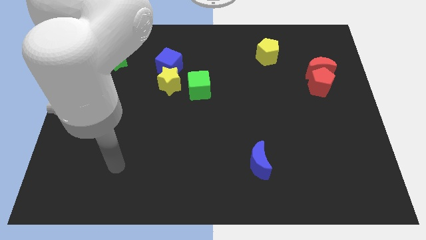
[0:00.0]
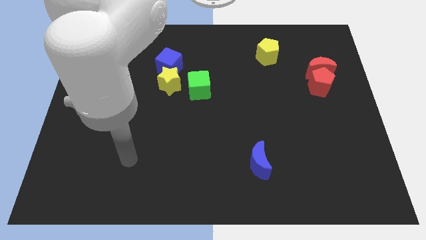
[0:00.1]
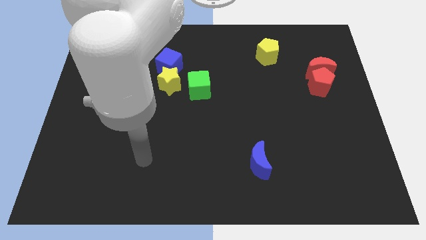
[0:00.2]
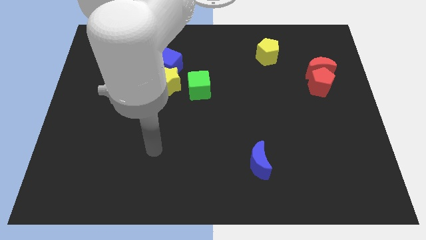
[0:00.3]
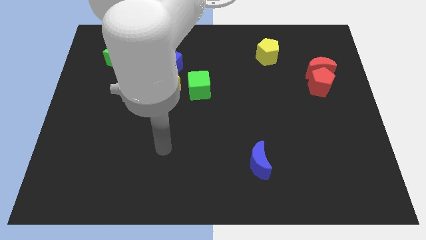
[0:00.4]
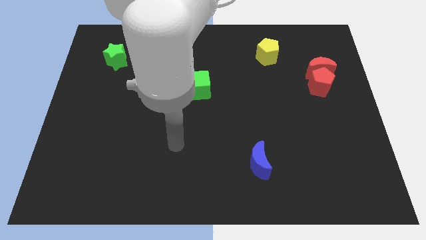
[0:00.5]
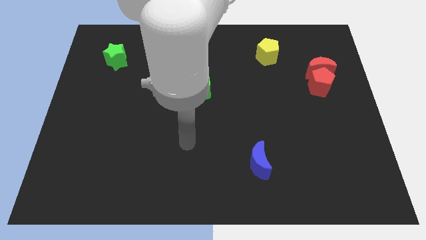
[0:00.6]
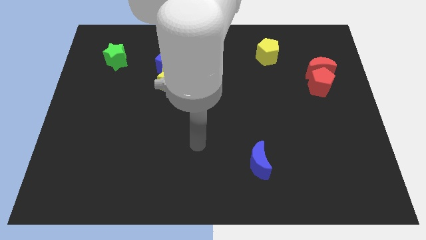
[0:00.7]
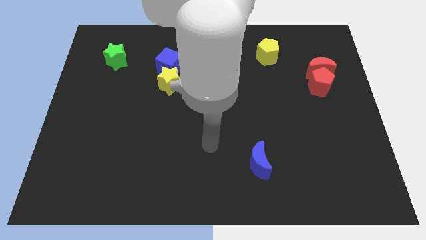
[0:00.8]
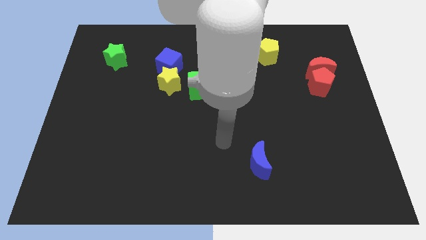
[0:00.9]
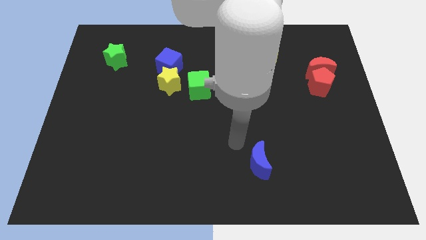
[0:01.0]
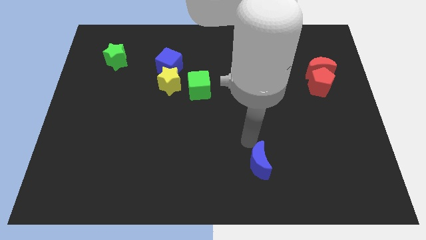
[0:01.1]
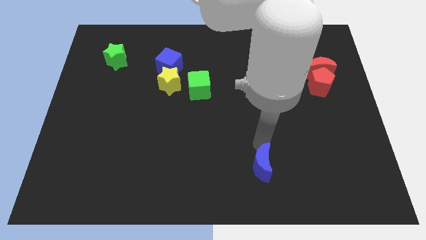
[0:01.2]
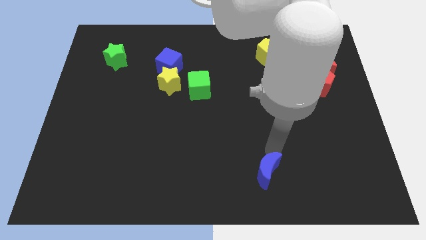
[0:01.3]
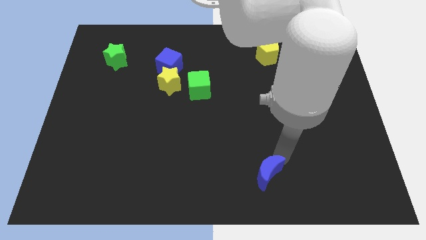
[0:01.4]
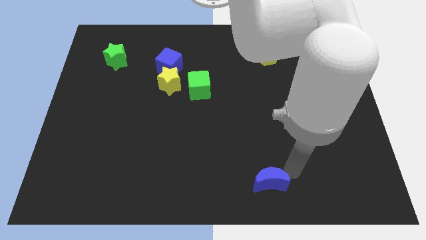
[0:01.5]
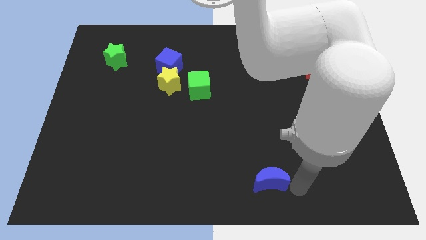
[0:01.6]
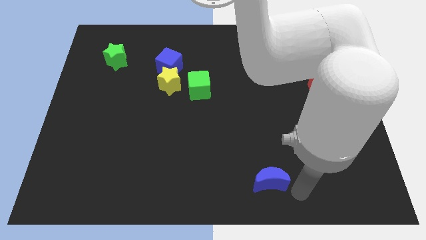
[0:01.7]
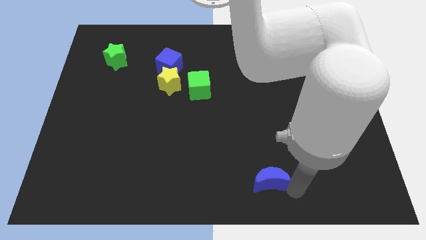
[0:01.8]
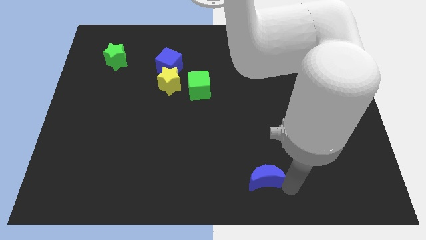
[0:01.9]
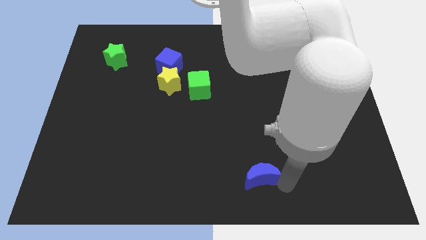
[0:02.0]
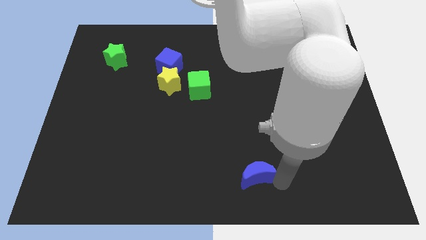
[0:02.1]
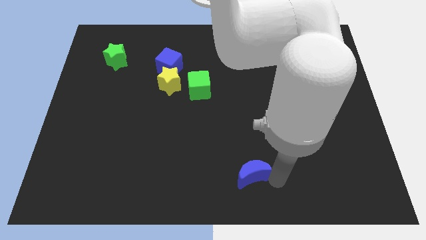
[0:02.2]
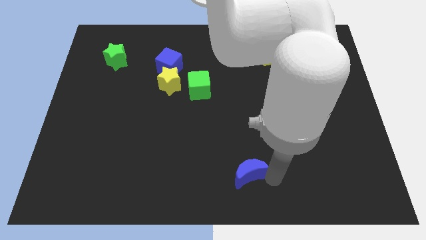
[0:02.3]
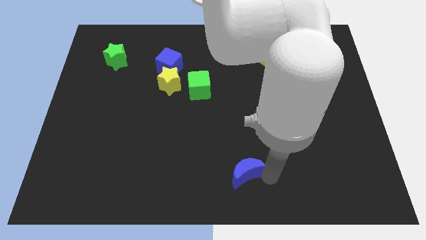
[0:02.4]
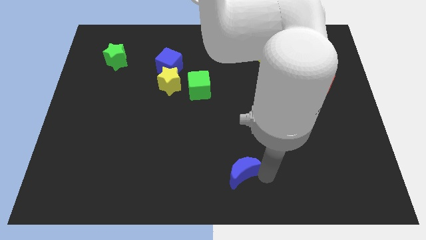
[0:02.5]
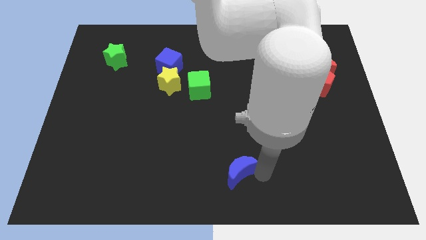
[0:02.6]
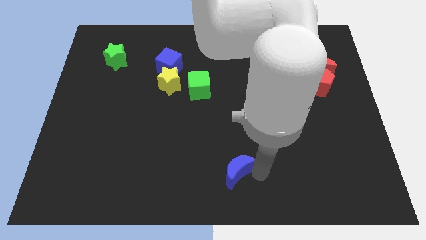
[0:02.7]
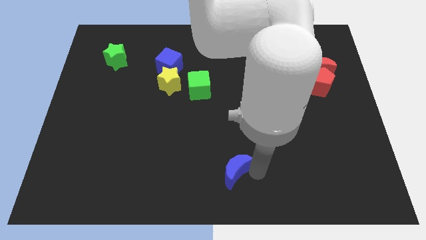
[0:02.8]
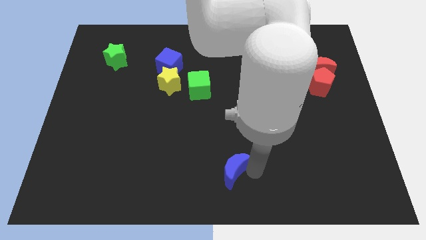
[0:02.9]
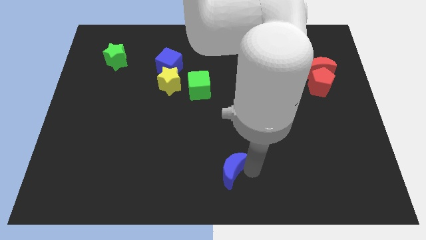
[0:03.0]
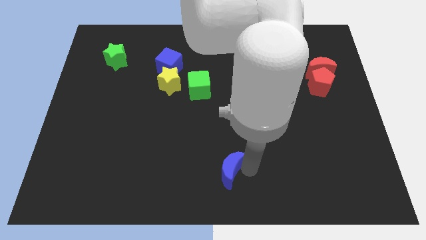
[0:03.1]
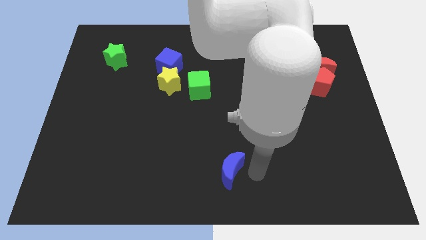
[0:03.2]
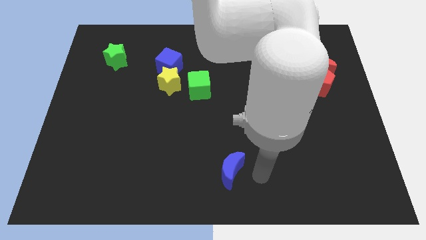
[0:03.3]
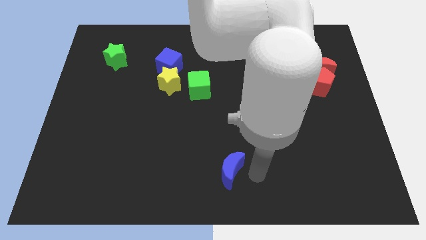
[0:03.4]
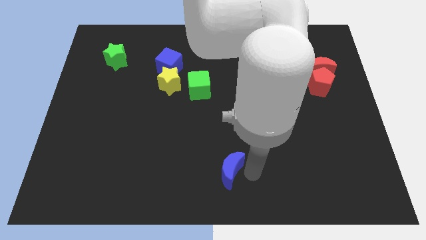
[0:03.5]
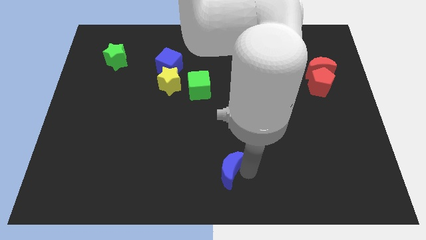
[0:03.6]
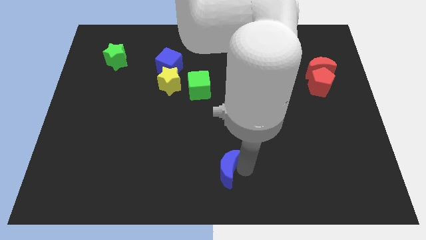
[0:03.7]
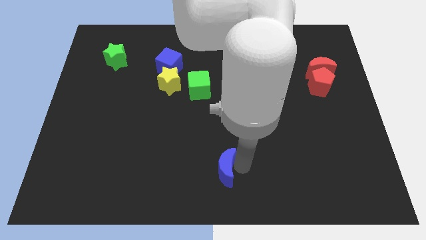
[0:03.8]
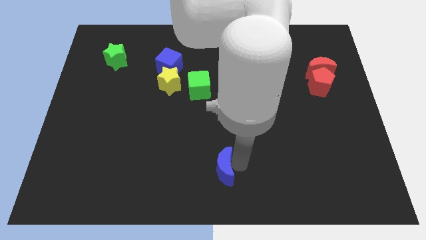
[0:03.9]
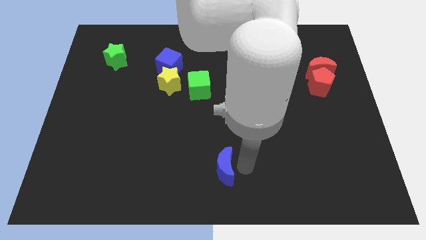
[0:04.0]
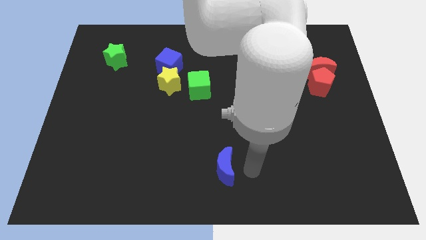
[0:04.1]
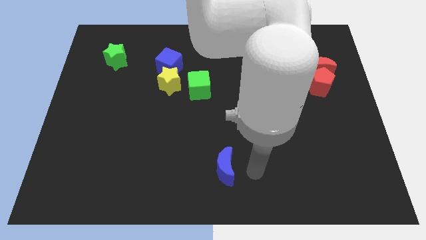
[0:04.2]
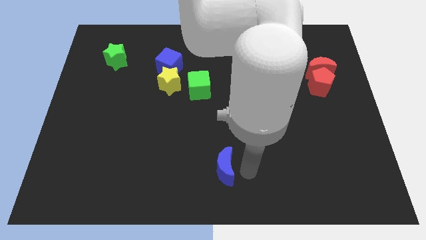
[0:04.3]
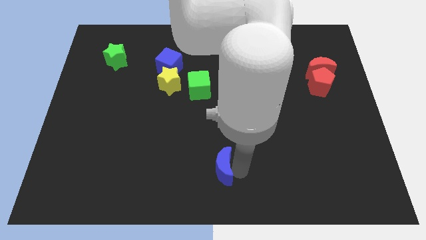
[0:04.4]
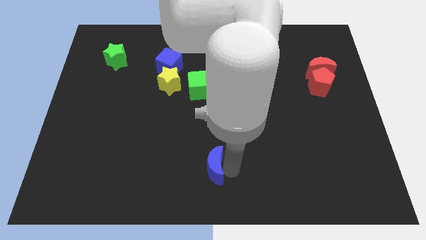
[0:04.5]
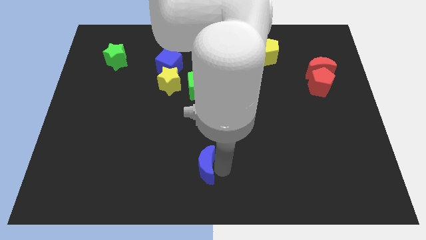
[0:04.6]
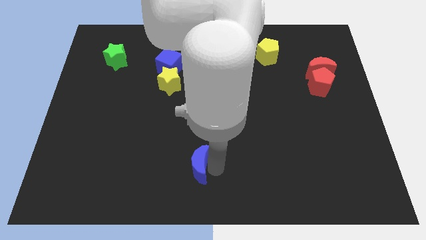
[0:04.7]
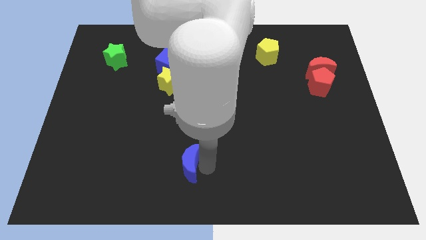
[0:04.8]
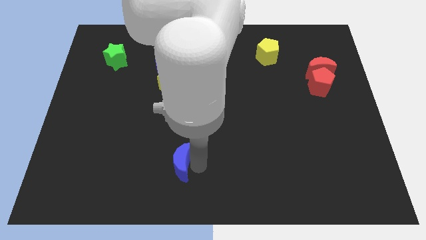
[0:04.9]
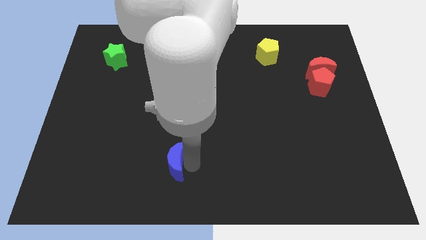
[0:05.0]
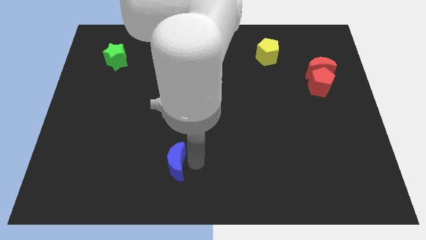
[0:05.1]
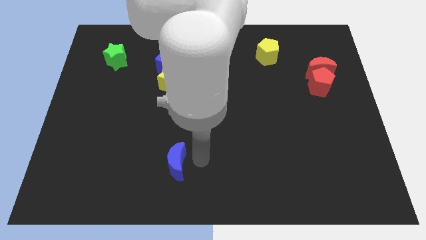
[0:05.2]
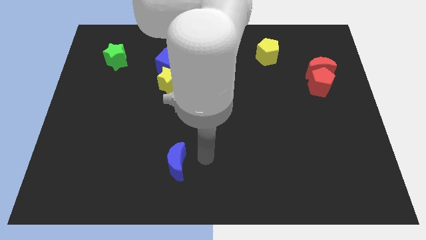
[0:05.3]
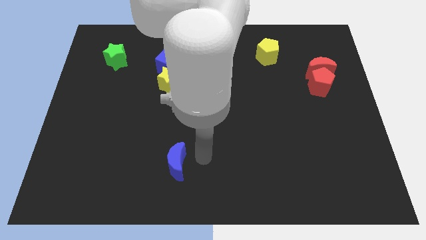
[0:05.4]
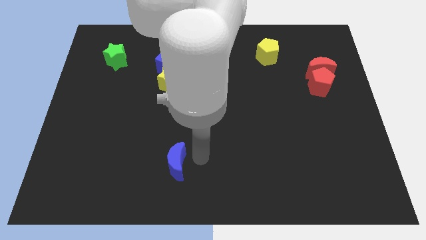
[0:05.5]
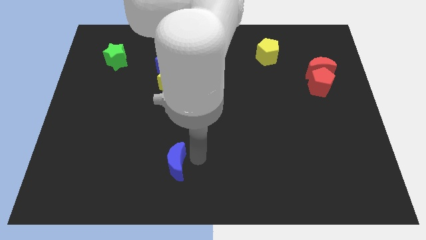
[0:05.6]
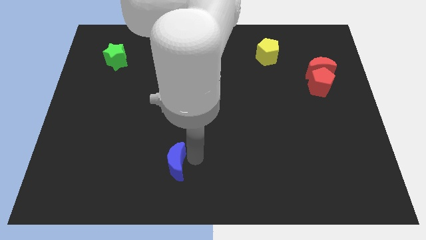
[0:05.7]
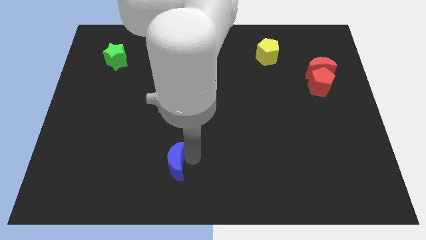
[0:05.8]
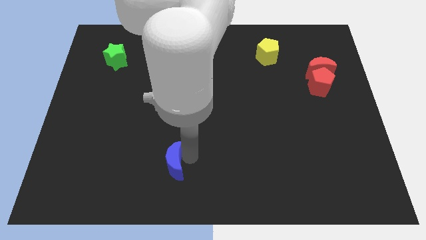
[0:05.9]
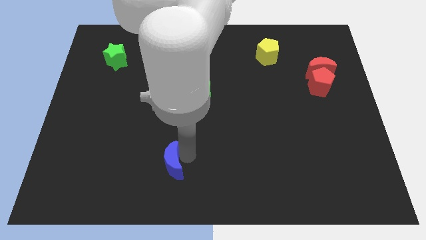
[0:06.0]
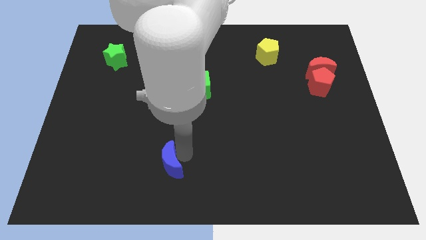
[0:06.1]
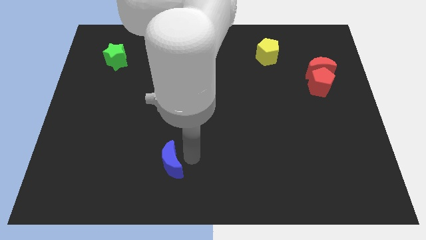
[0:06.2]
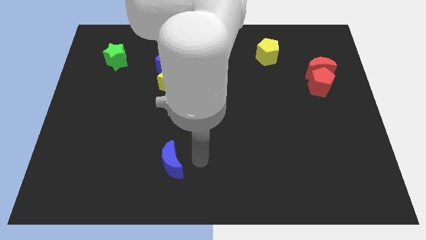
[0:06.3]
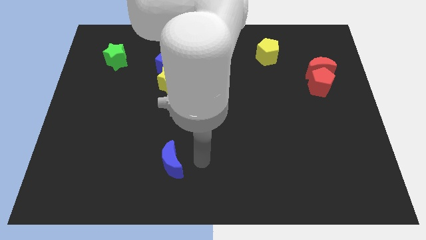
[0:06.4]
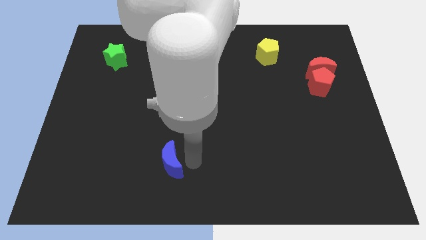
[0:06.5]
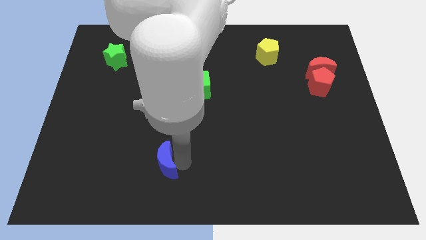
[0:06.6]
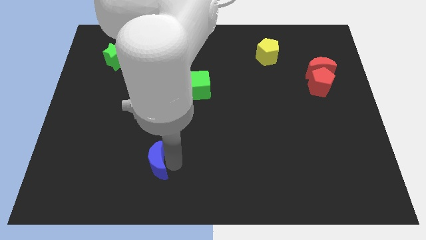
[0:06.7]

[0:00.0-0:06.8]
push the blue moon to the left

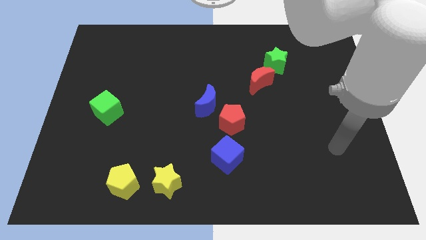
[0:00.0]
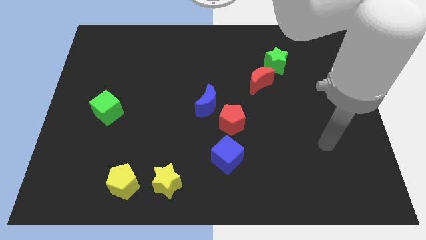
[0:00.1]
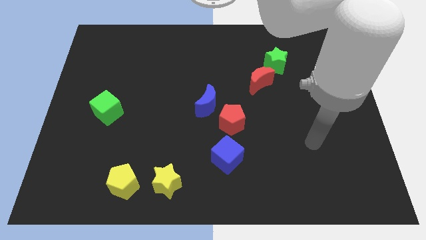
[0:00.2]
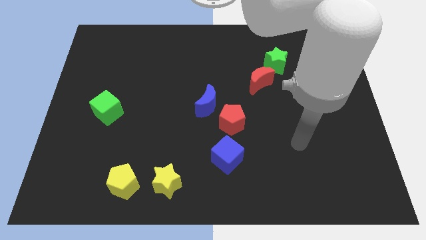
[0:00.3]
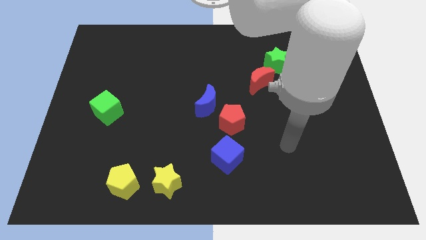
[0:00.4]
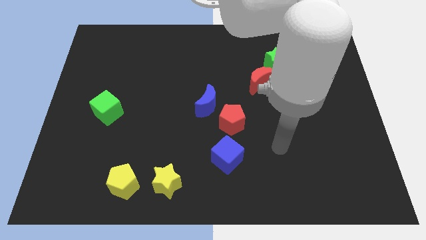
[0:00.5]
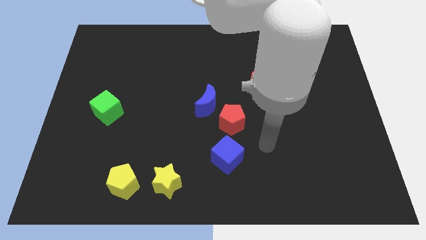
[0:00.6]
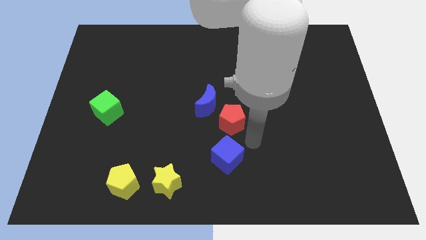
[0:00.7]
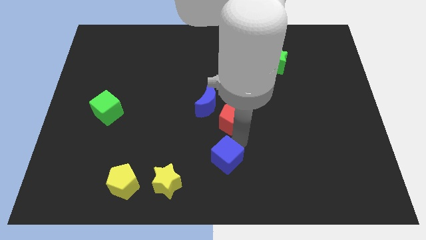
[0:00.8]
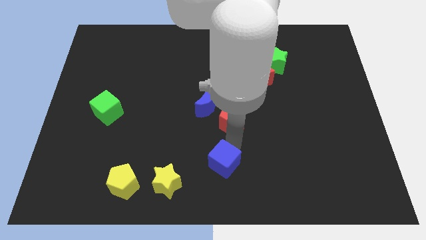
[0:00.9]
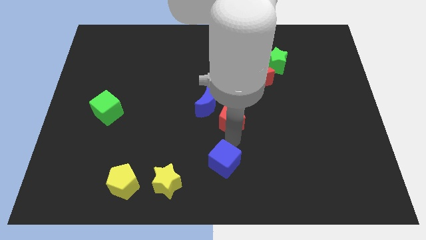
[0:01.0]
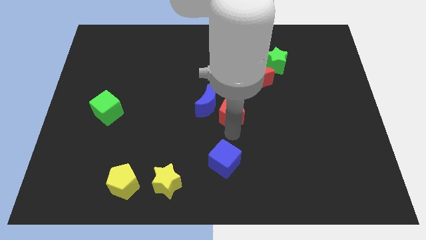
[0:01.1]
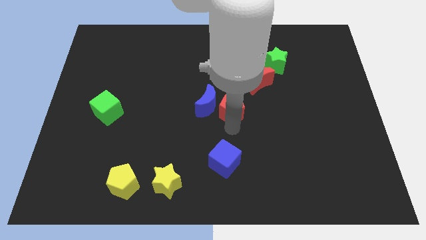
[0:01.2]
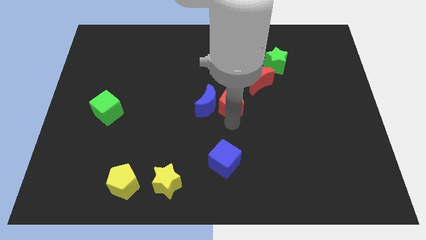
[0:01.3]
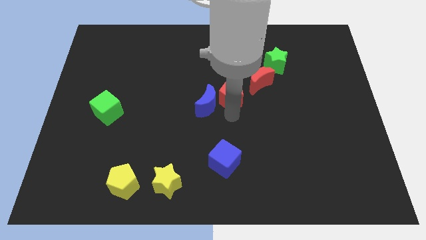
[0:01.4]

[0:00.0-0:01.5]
move the red pentagon upwards a bit

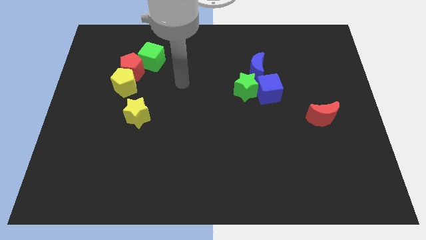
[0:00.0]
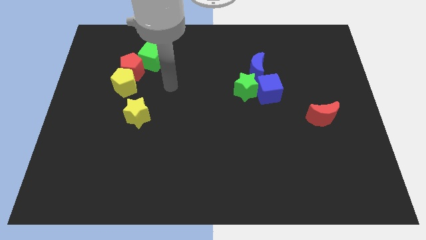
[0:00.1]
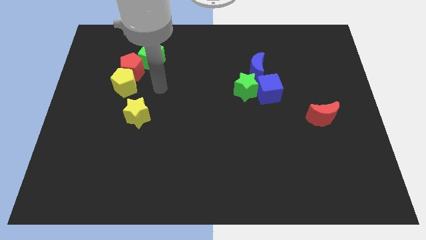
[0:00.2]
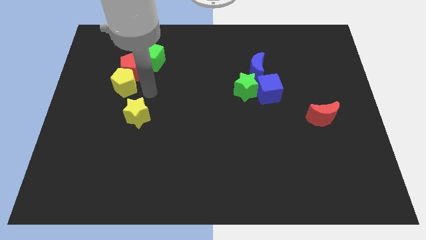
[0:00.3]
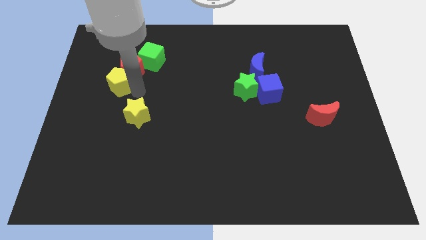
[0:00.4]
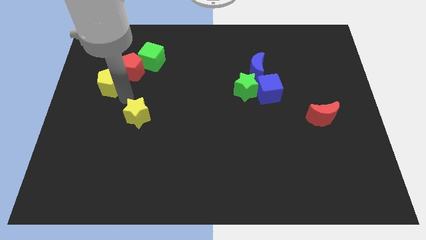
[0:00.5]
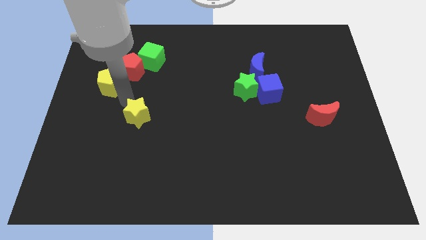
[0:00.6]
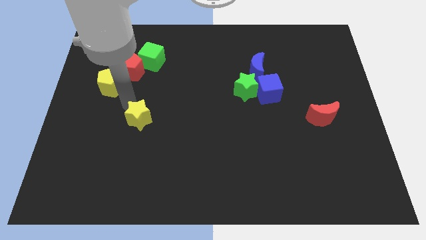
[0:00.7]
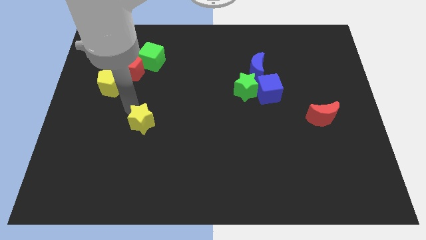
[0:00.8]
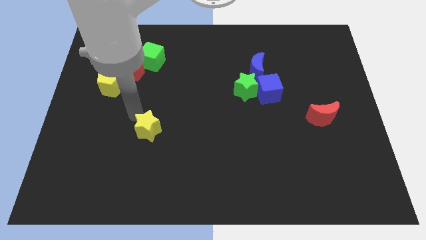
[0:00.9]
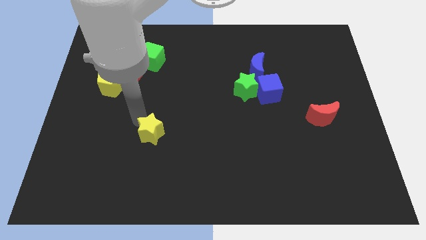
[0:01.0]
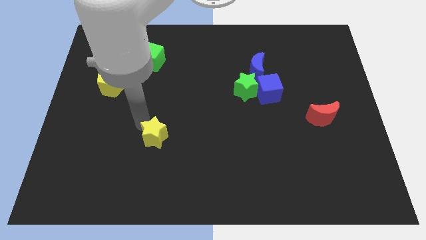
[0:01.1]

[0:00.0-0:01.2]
slide the yellow star a little bit diagonally downwards and to the right
